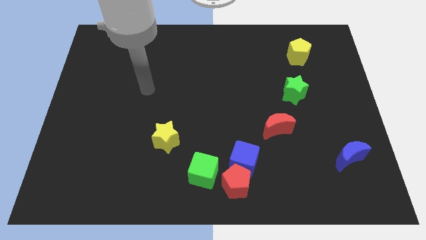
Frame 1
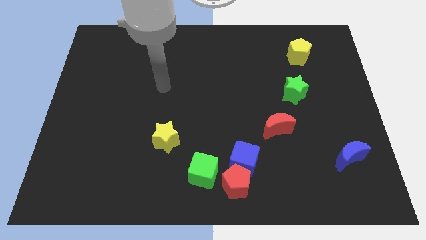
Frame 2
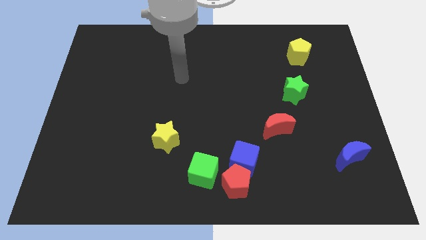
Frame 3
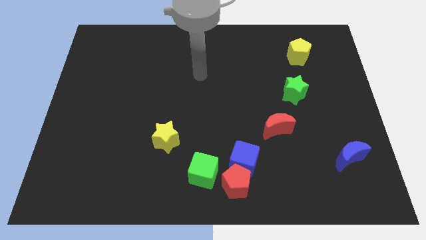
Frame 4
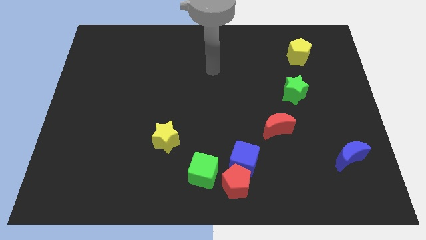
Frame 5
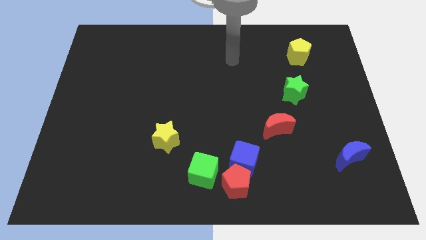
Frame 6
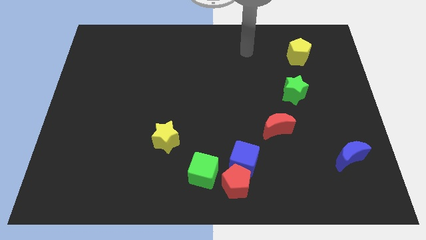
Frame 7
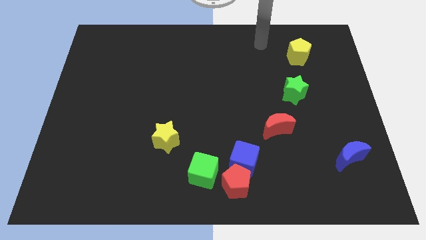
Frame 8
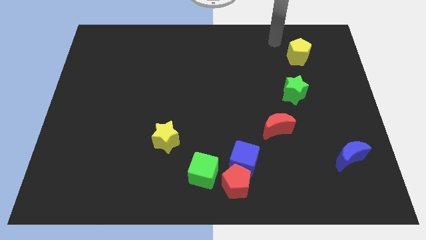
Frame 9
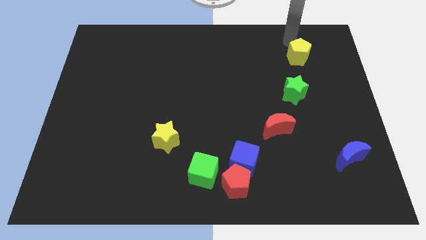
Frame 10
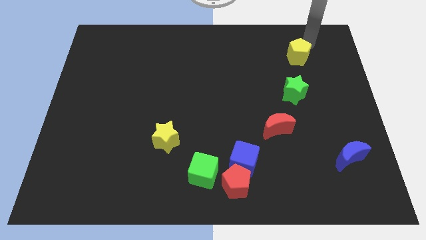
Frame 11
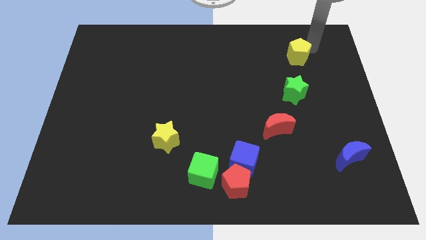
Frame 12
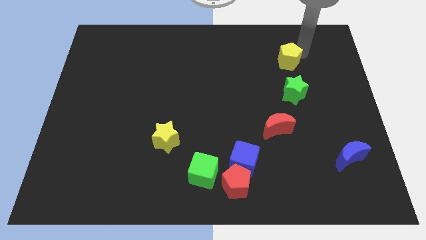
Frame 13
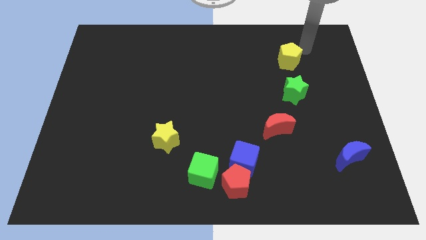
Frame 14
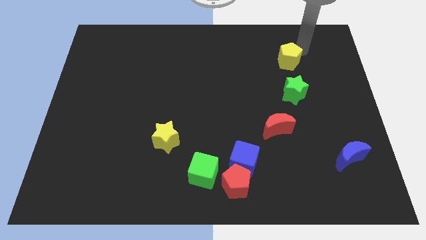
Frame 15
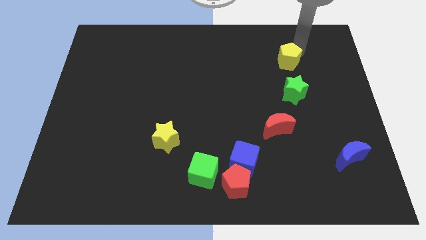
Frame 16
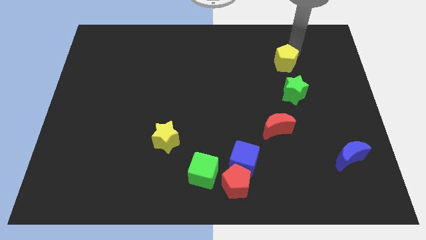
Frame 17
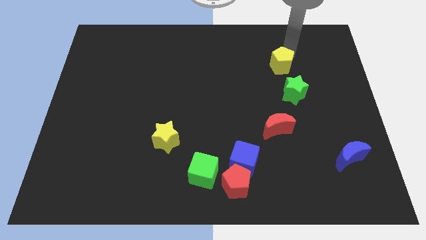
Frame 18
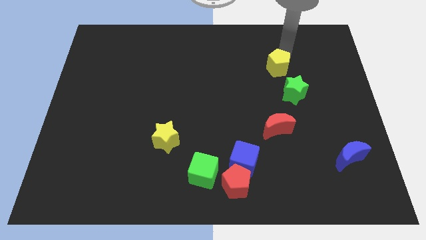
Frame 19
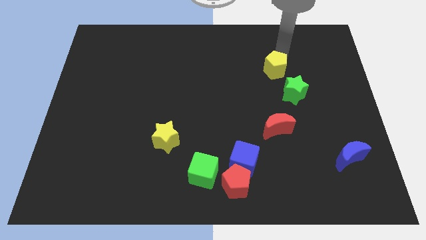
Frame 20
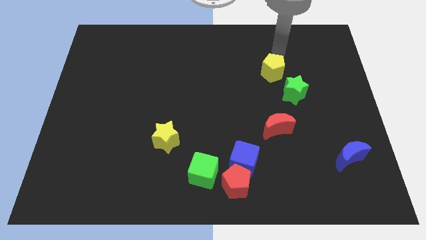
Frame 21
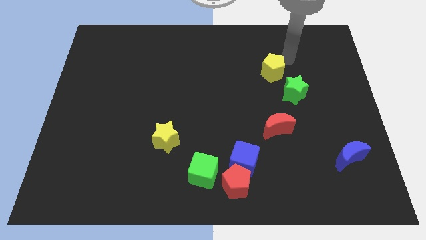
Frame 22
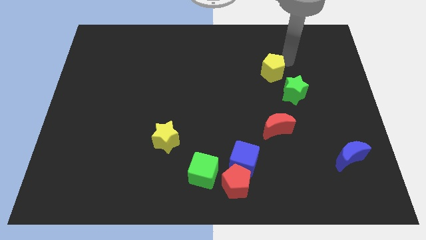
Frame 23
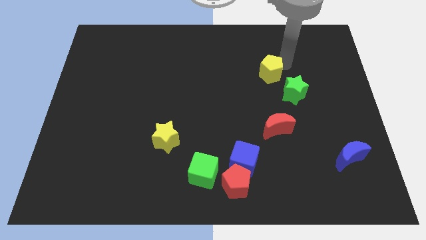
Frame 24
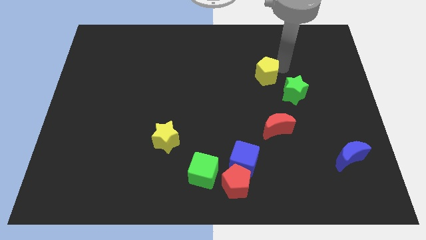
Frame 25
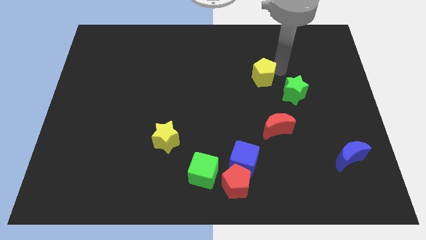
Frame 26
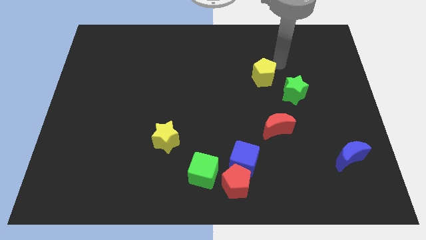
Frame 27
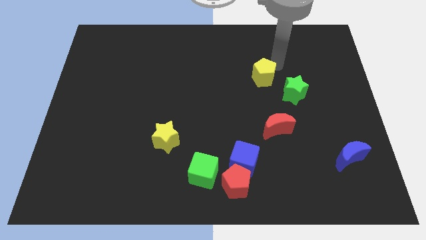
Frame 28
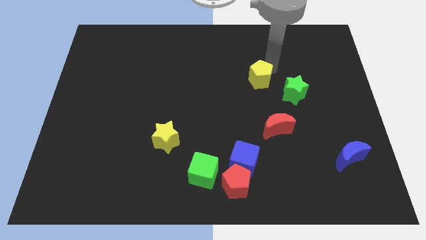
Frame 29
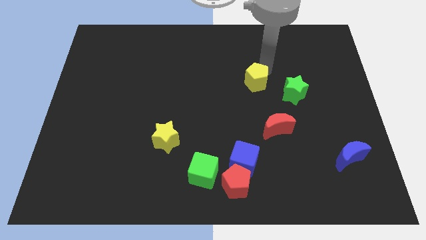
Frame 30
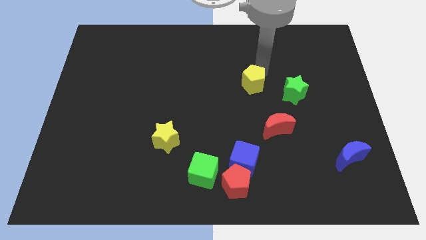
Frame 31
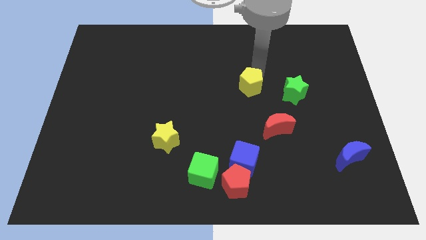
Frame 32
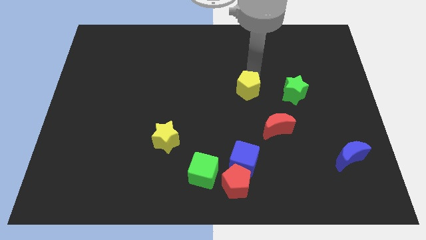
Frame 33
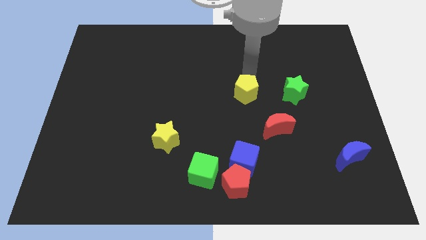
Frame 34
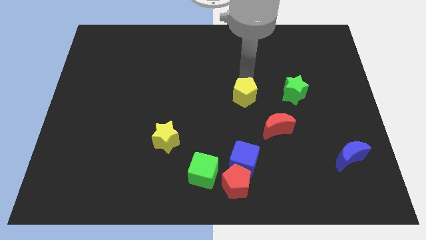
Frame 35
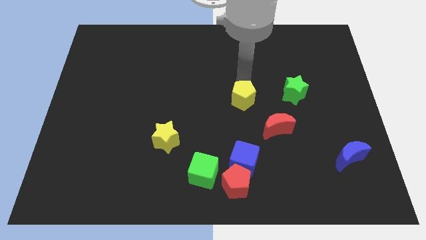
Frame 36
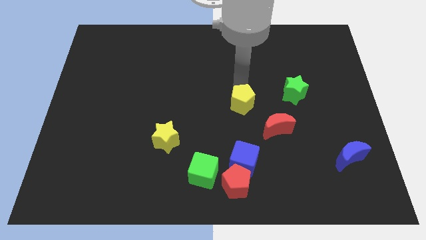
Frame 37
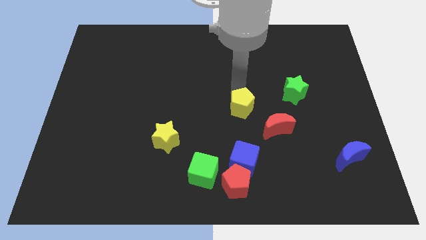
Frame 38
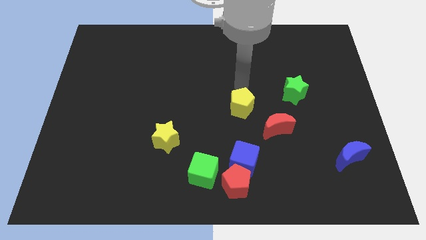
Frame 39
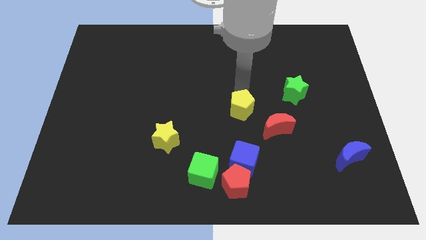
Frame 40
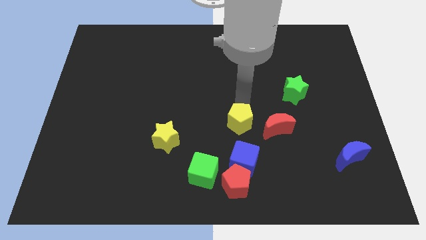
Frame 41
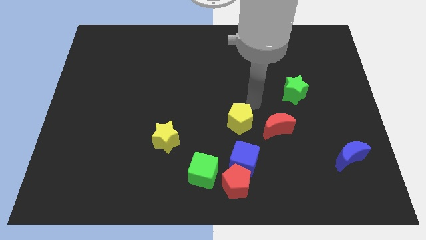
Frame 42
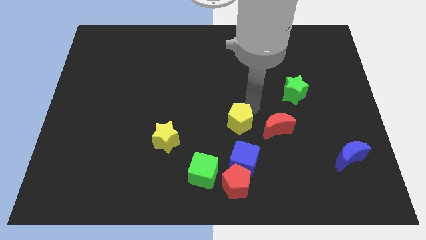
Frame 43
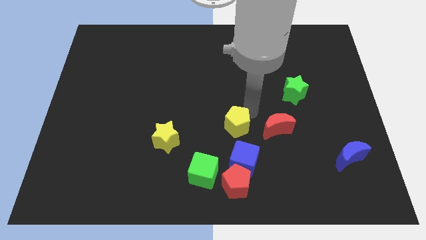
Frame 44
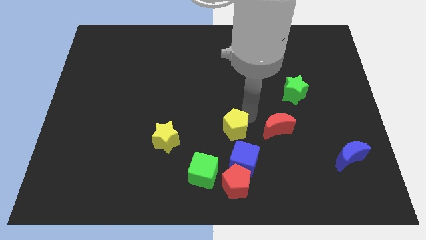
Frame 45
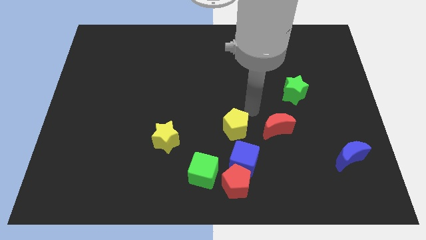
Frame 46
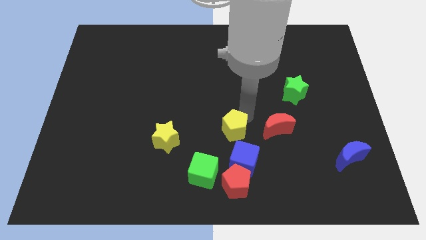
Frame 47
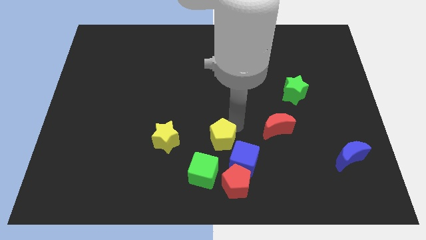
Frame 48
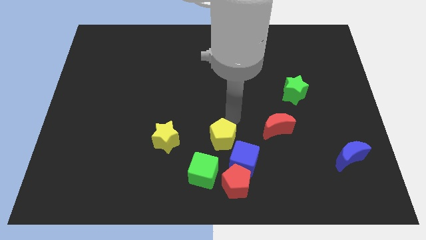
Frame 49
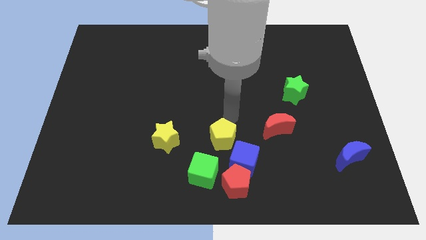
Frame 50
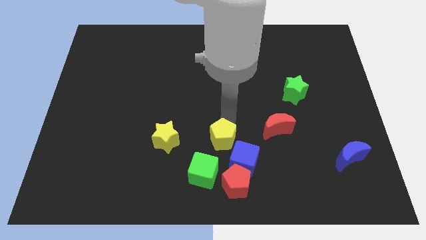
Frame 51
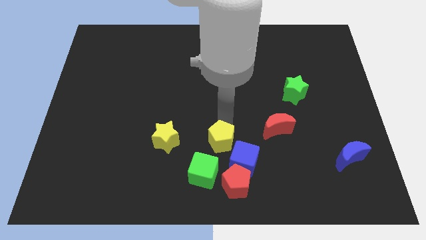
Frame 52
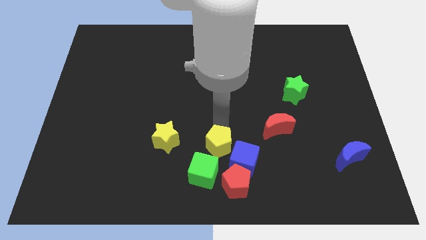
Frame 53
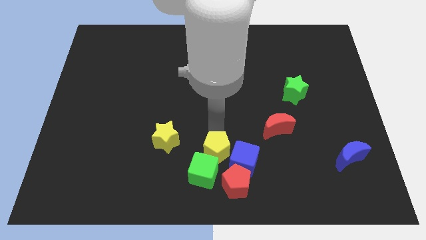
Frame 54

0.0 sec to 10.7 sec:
put the yellow pentagon to the green cube

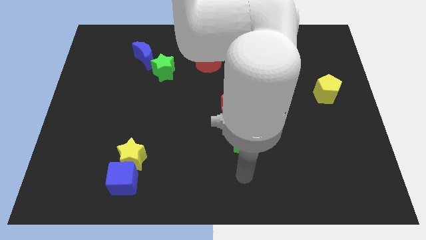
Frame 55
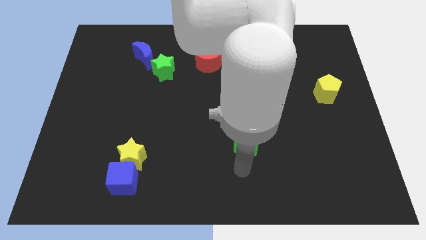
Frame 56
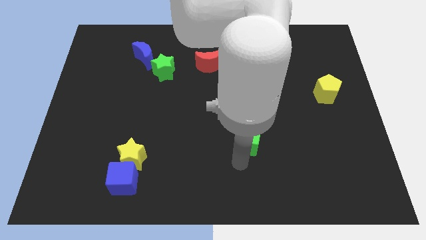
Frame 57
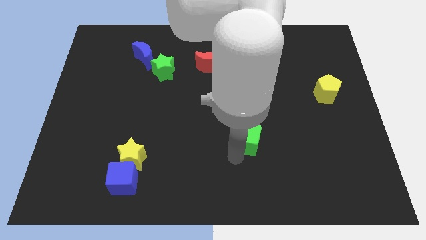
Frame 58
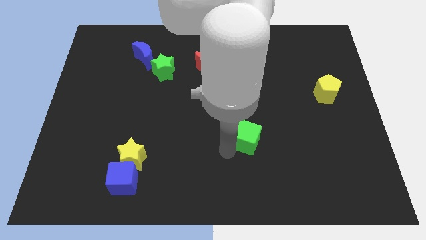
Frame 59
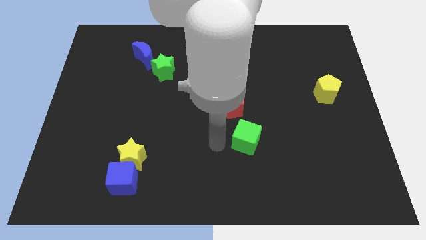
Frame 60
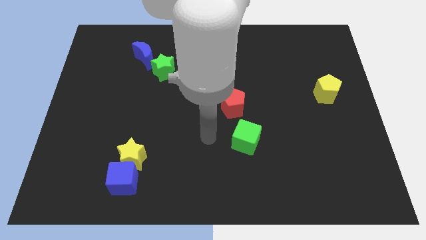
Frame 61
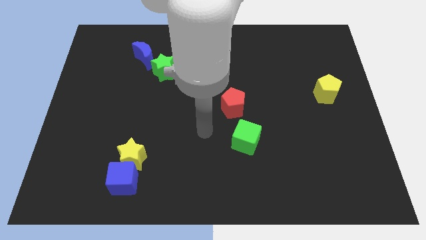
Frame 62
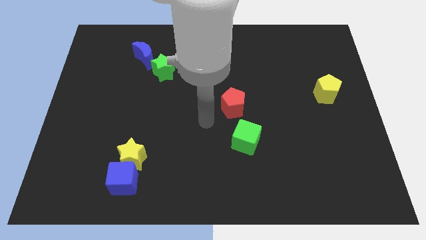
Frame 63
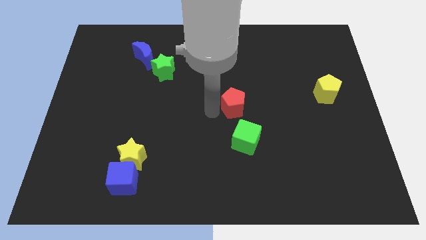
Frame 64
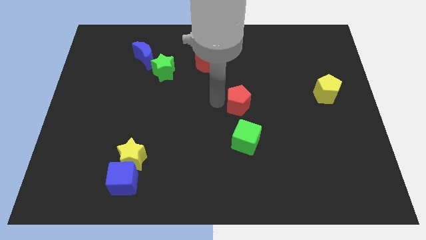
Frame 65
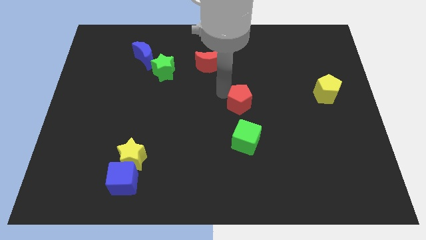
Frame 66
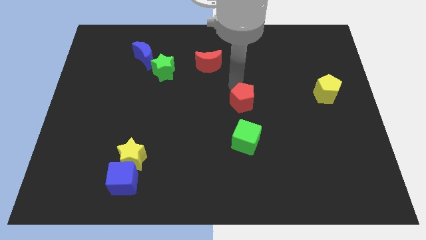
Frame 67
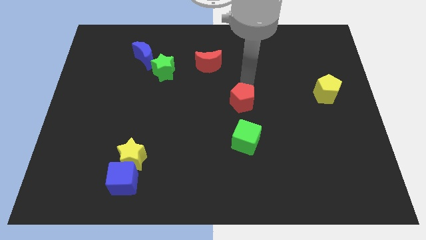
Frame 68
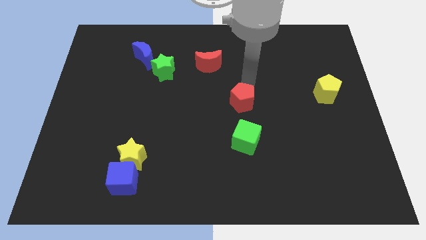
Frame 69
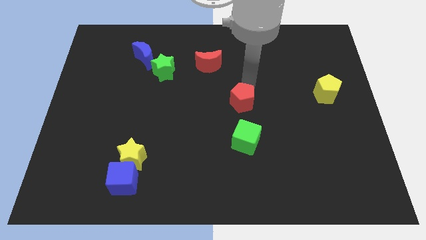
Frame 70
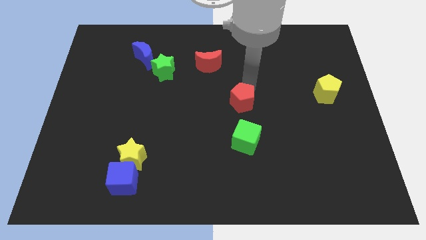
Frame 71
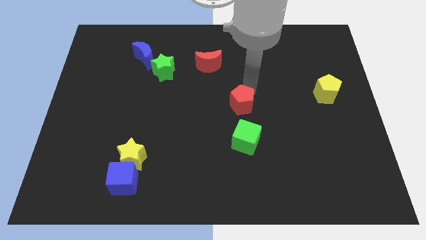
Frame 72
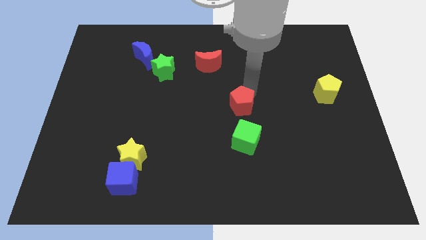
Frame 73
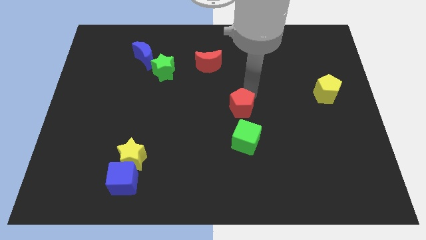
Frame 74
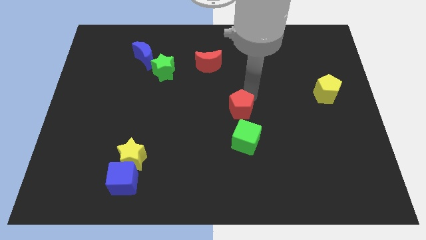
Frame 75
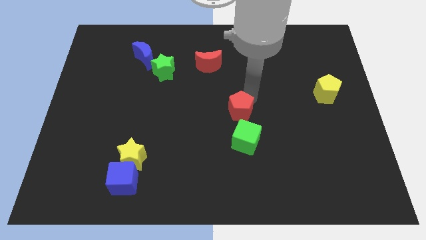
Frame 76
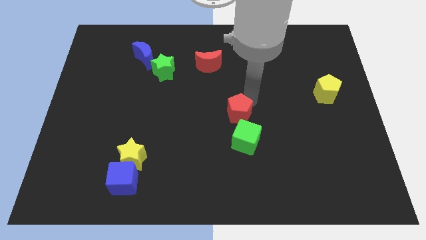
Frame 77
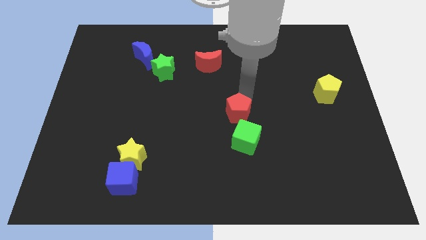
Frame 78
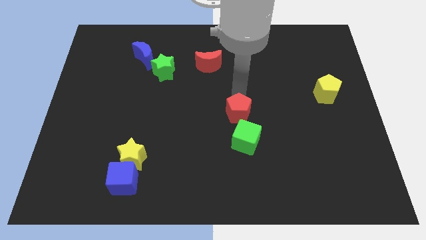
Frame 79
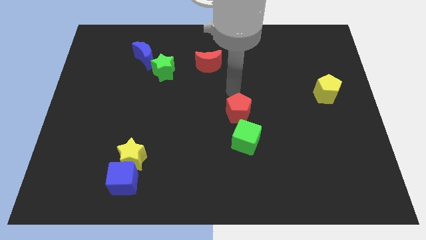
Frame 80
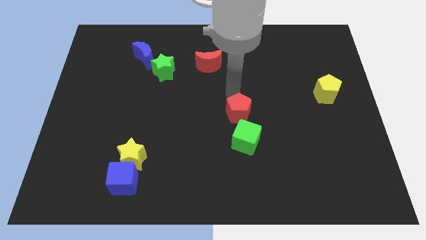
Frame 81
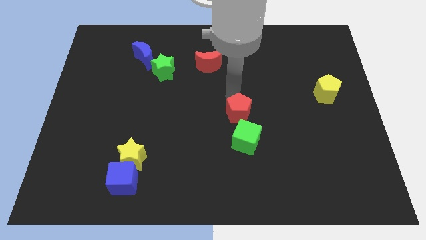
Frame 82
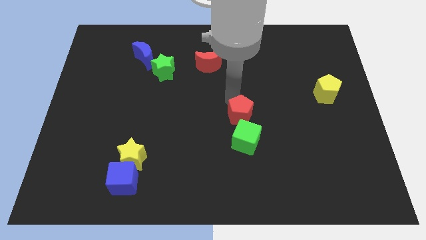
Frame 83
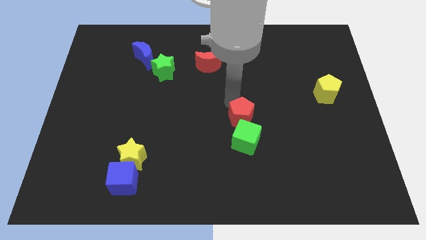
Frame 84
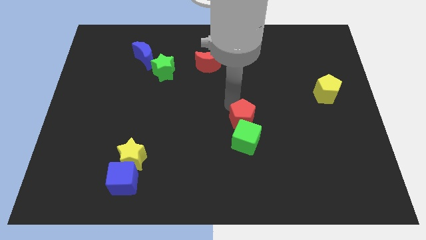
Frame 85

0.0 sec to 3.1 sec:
slide the red pentagon towards the green cube
